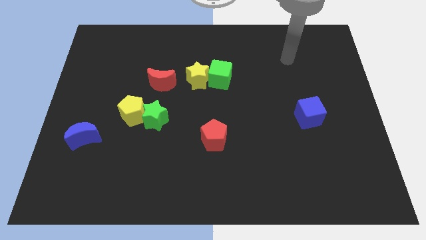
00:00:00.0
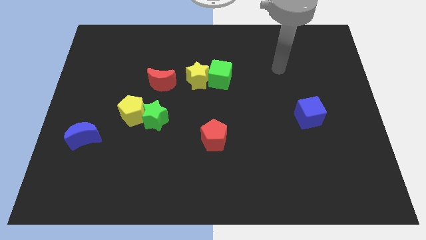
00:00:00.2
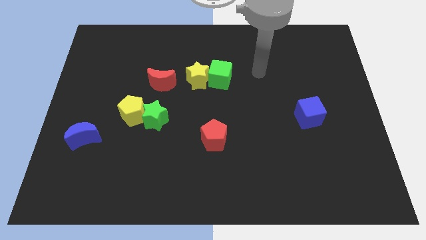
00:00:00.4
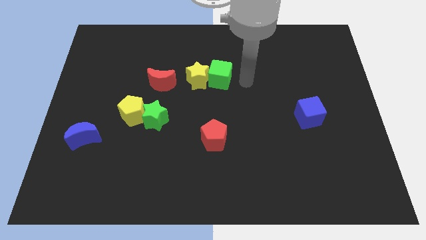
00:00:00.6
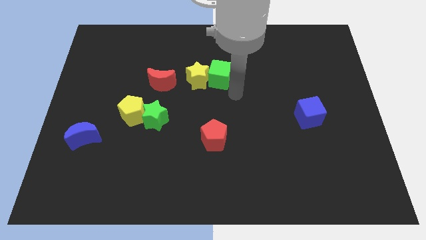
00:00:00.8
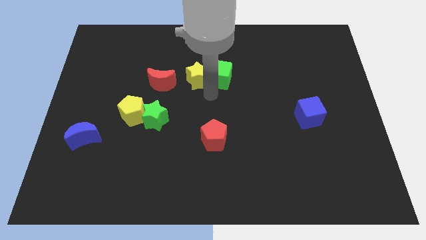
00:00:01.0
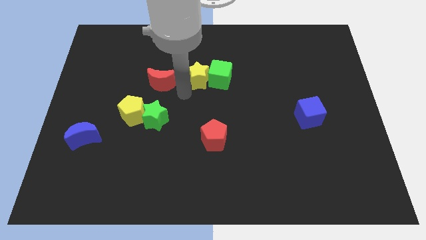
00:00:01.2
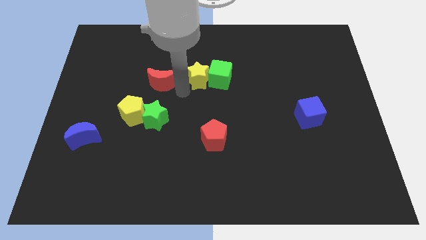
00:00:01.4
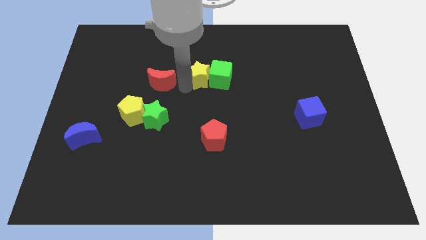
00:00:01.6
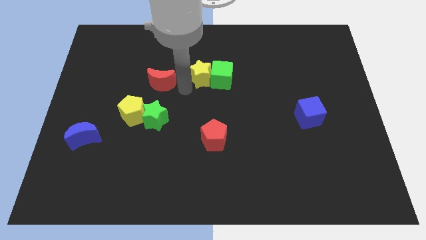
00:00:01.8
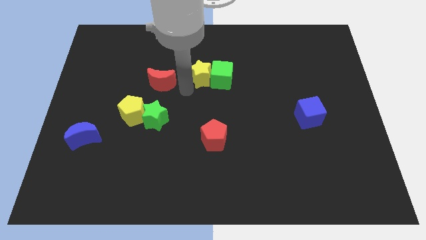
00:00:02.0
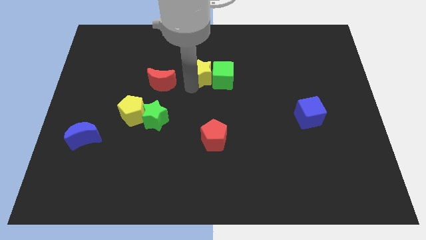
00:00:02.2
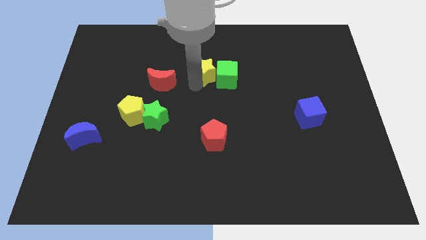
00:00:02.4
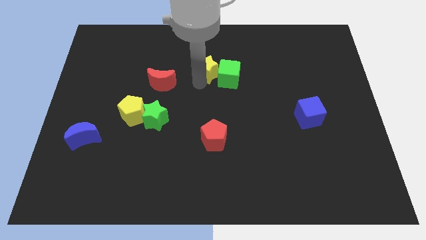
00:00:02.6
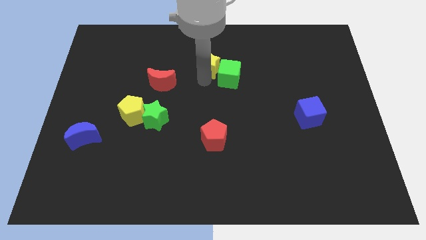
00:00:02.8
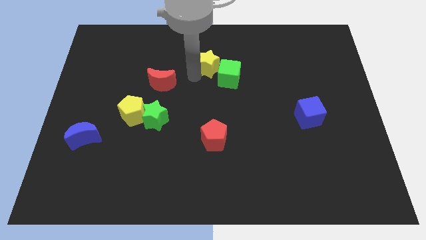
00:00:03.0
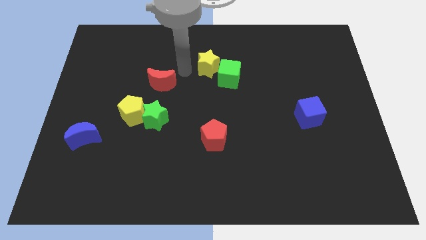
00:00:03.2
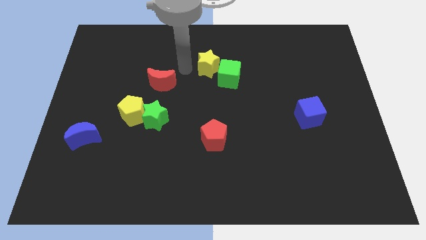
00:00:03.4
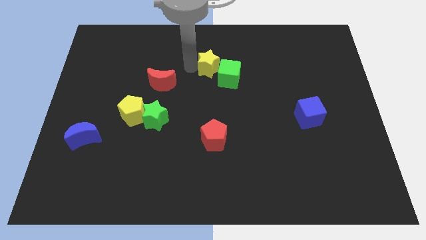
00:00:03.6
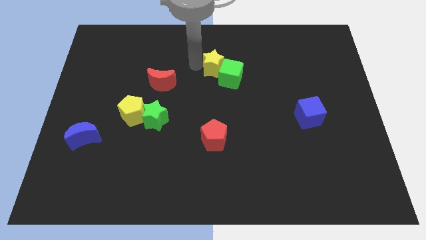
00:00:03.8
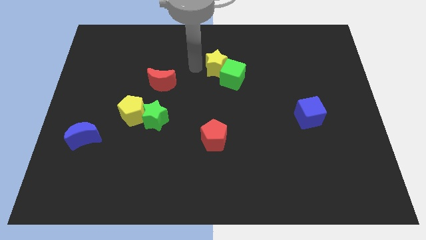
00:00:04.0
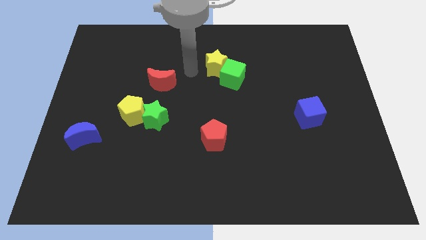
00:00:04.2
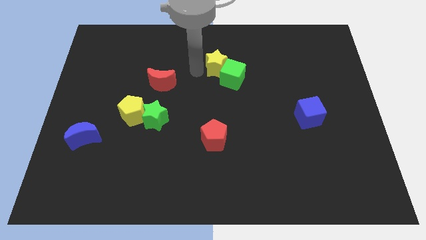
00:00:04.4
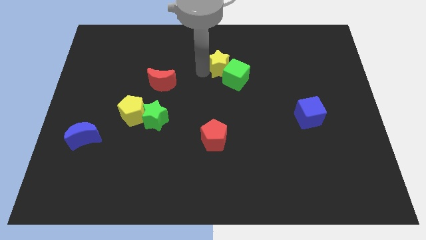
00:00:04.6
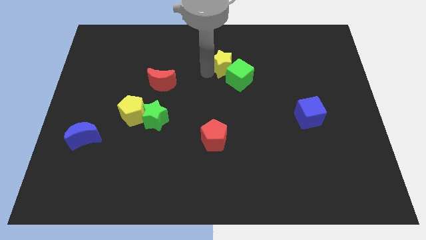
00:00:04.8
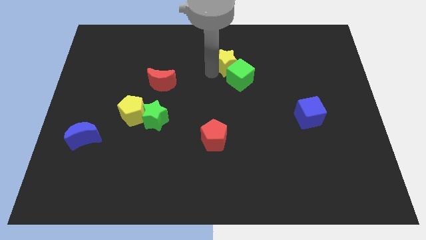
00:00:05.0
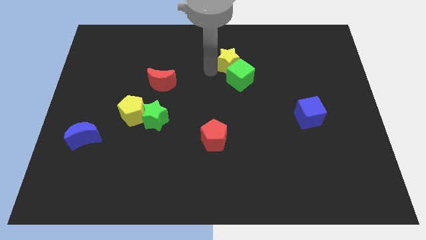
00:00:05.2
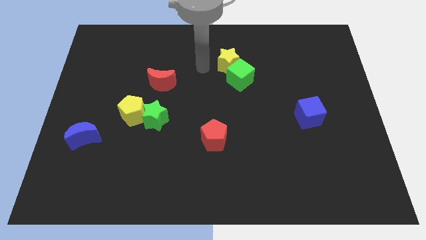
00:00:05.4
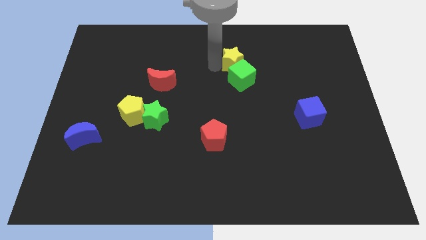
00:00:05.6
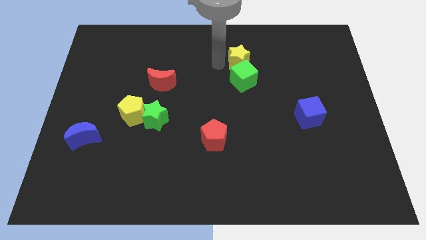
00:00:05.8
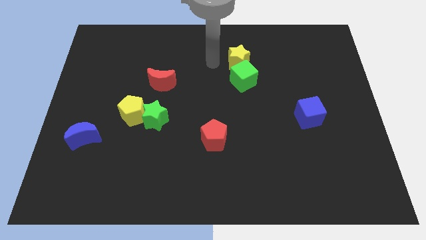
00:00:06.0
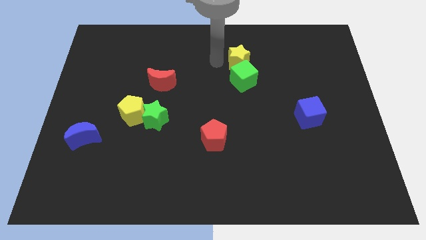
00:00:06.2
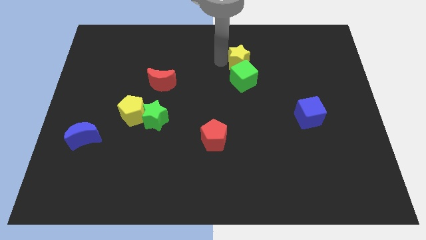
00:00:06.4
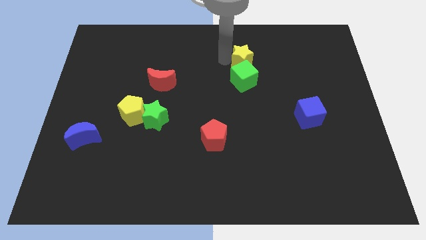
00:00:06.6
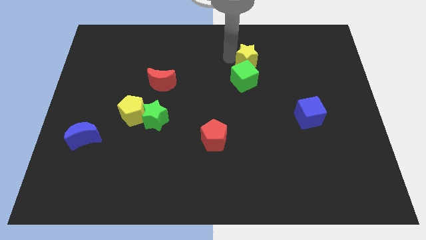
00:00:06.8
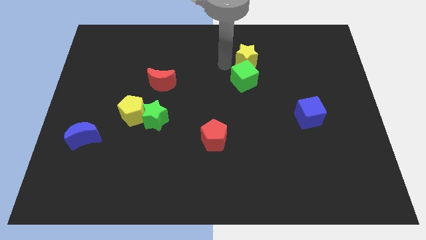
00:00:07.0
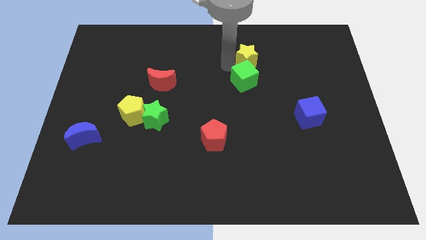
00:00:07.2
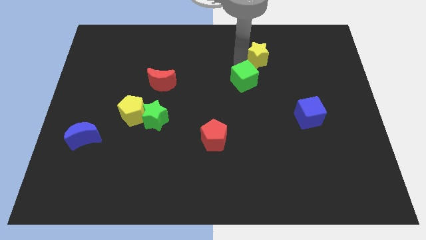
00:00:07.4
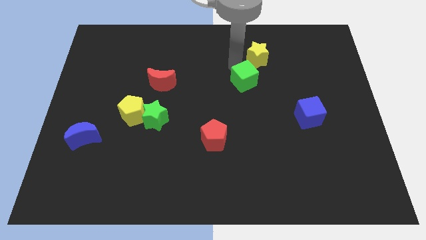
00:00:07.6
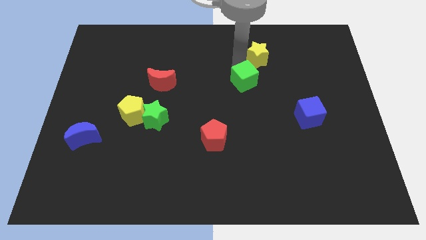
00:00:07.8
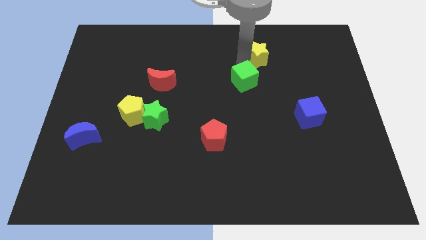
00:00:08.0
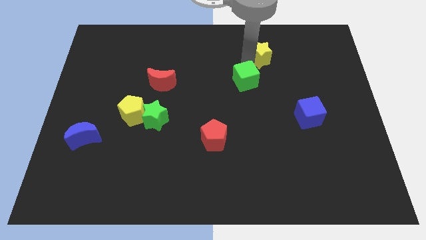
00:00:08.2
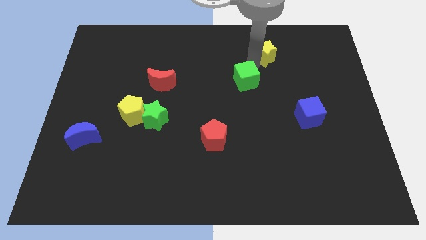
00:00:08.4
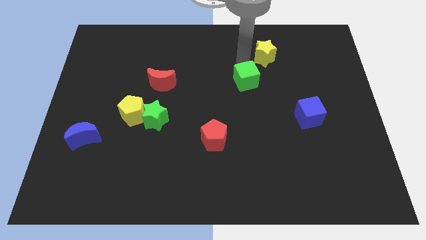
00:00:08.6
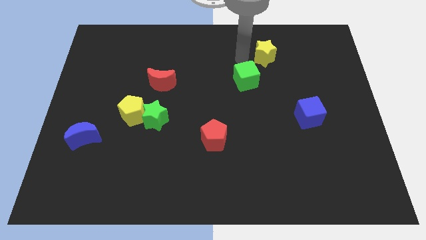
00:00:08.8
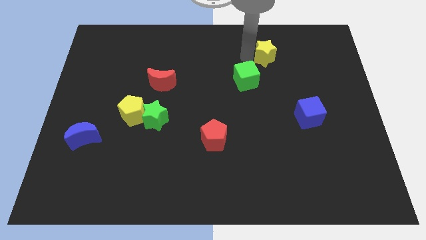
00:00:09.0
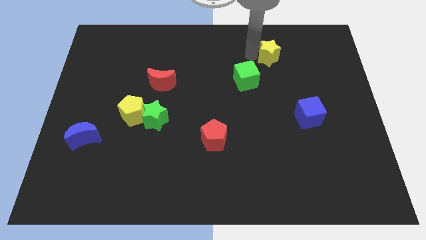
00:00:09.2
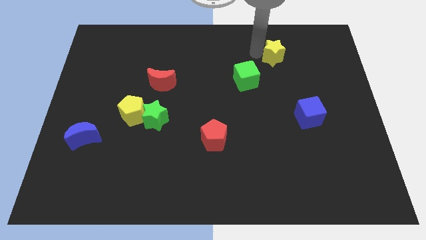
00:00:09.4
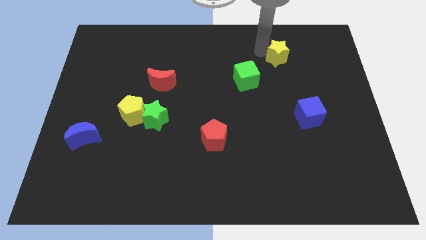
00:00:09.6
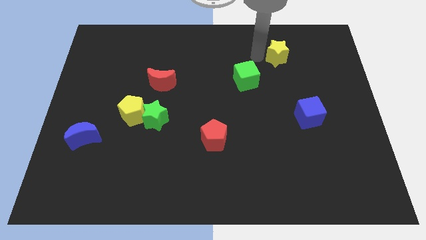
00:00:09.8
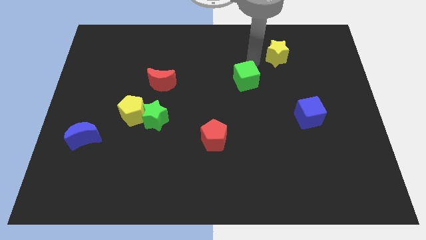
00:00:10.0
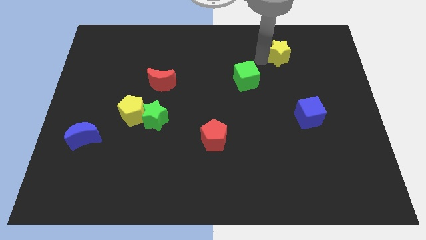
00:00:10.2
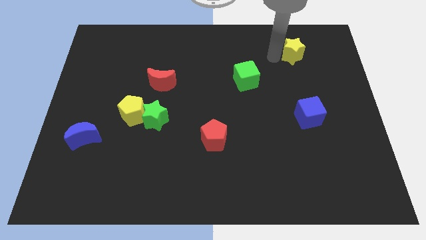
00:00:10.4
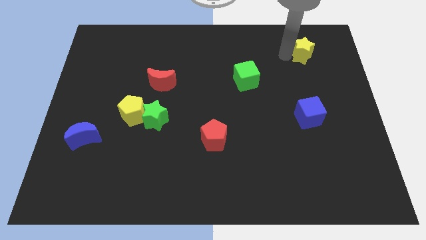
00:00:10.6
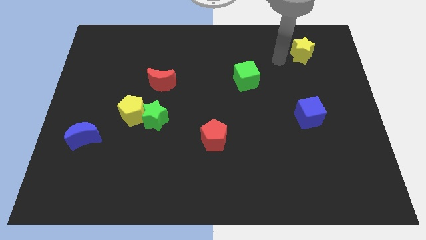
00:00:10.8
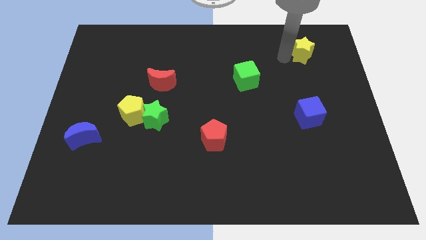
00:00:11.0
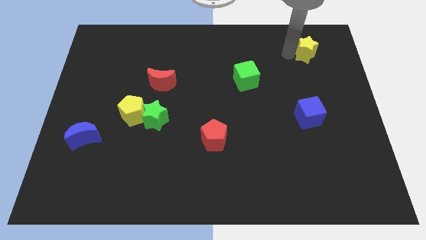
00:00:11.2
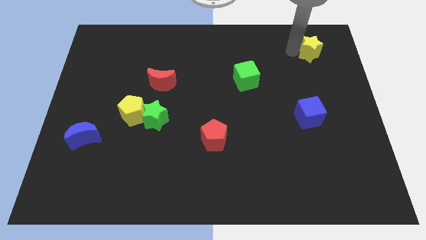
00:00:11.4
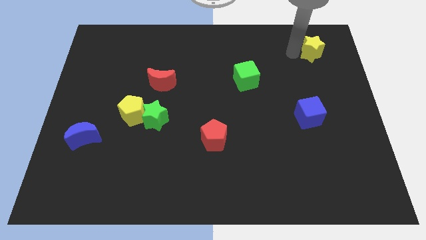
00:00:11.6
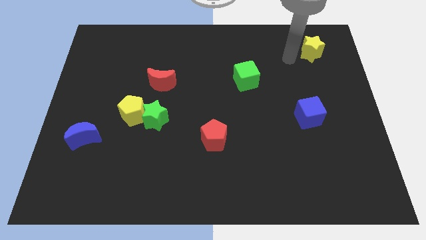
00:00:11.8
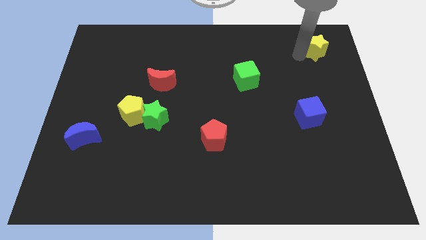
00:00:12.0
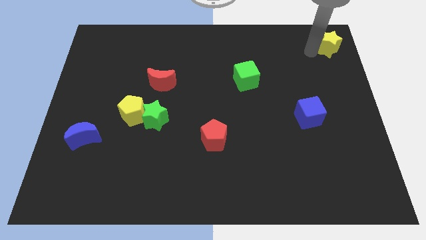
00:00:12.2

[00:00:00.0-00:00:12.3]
slide the yellow star to the top right
